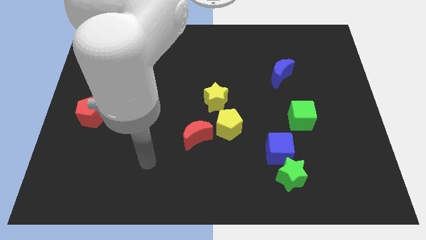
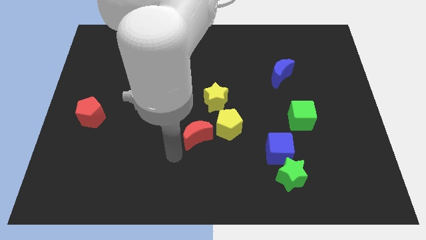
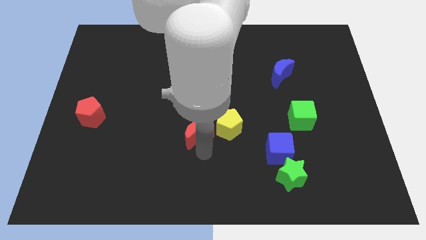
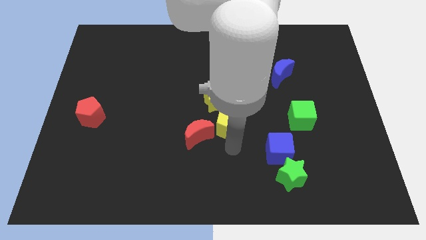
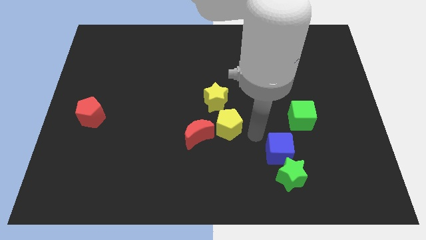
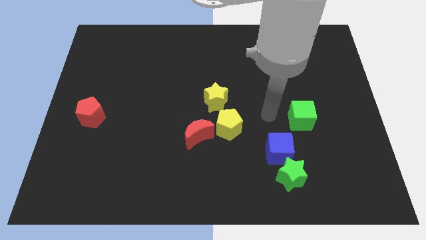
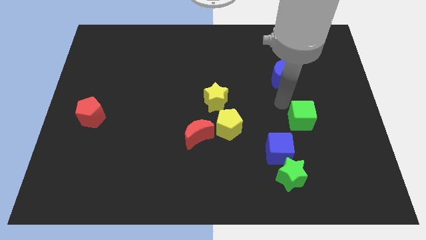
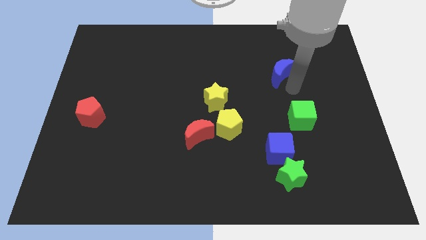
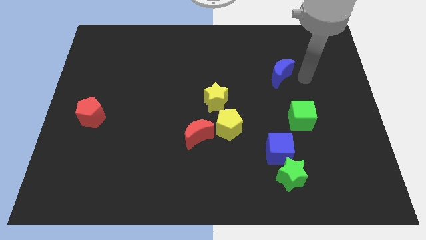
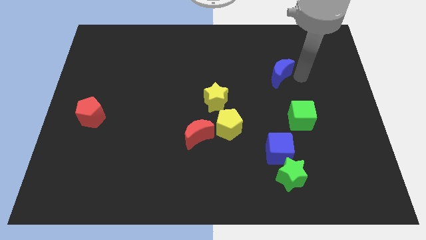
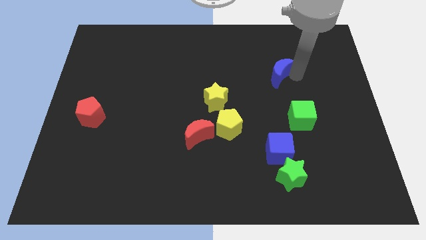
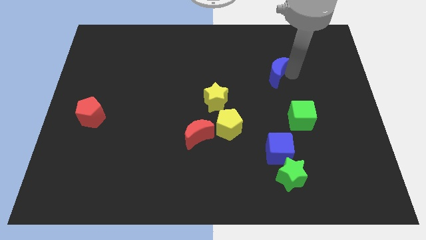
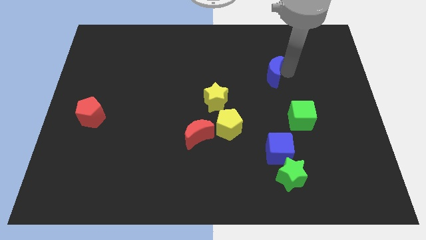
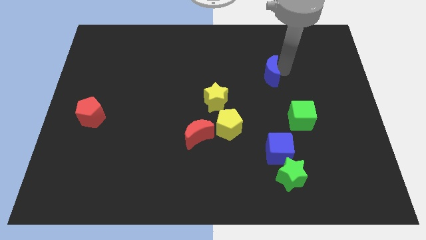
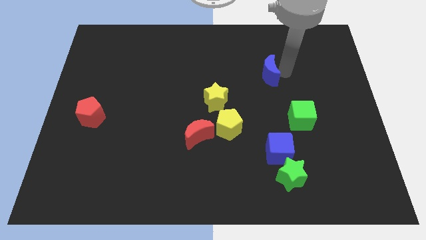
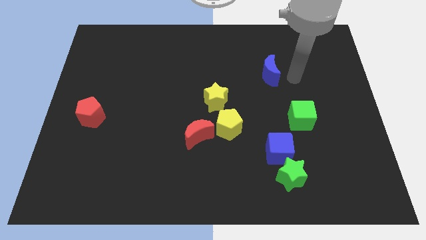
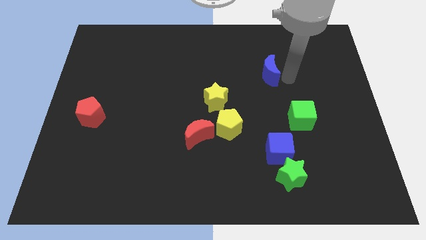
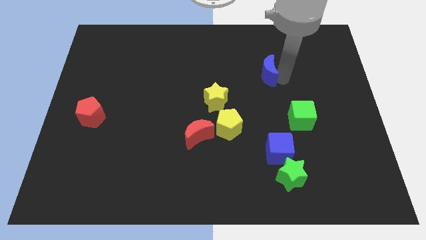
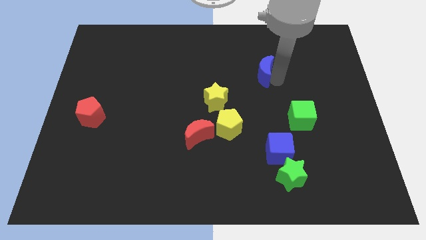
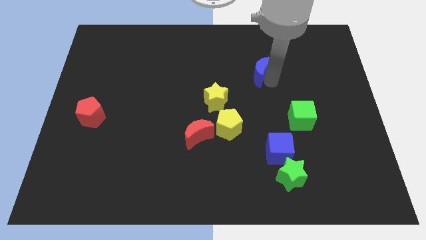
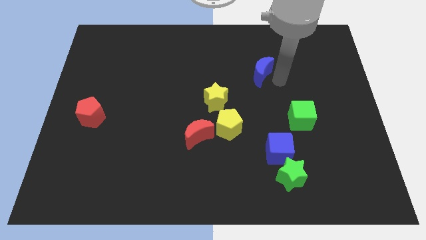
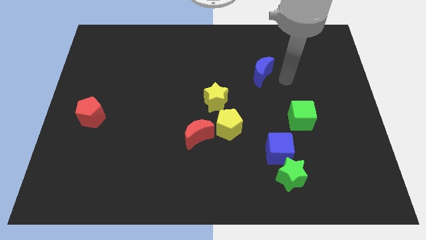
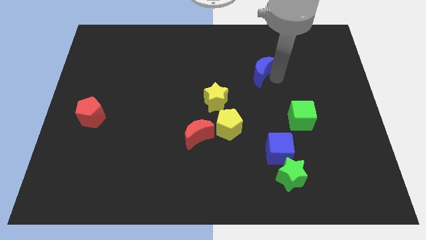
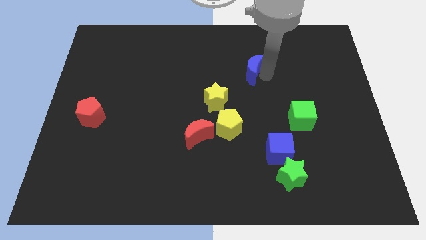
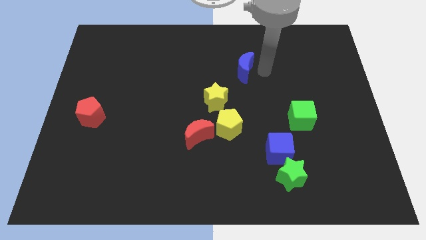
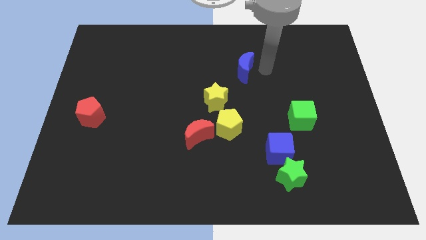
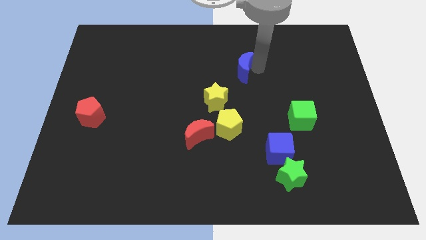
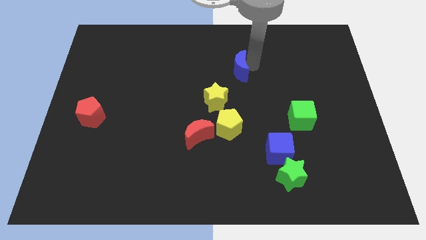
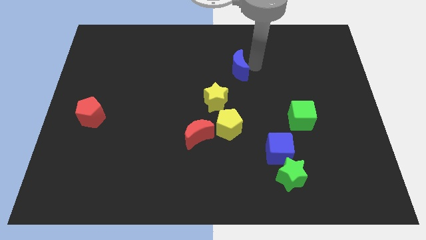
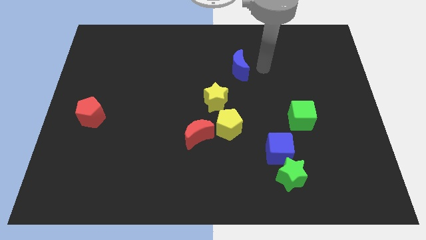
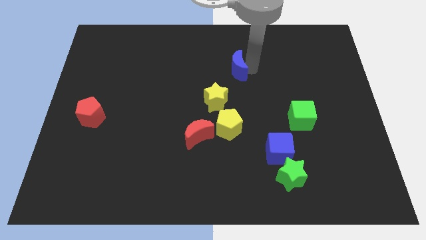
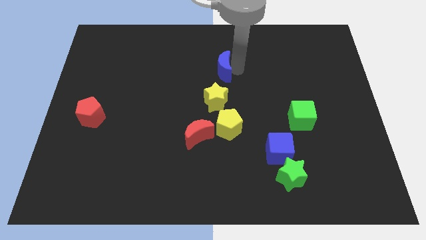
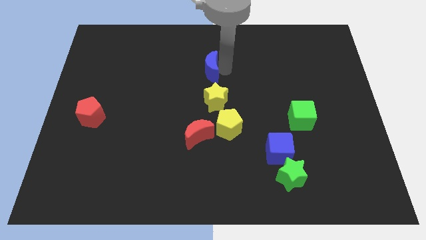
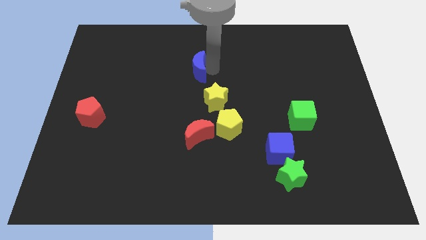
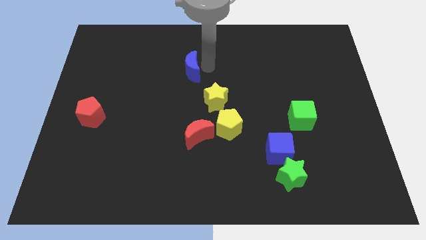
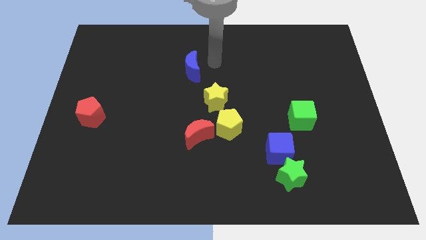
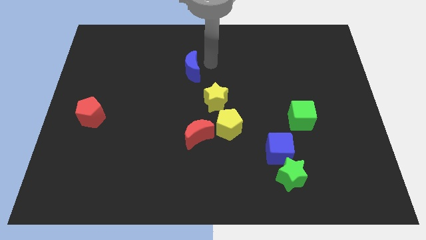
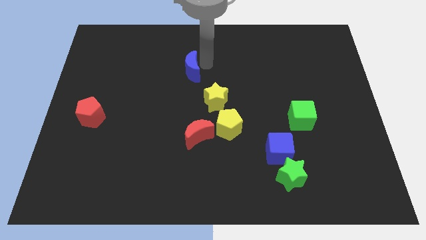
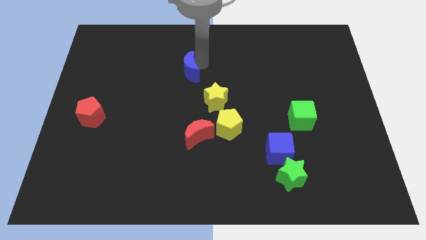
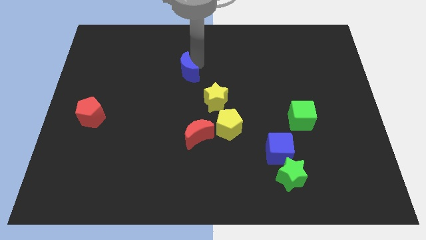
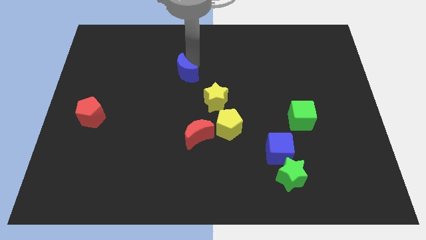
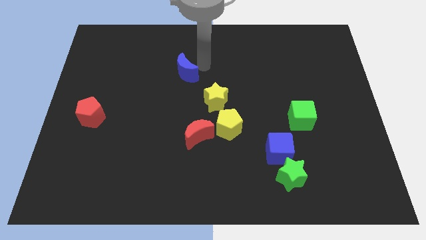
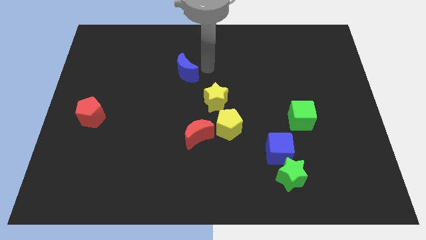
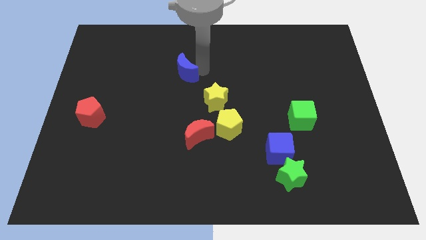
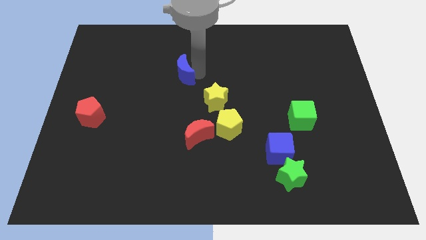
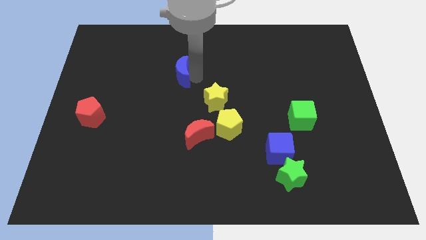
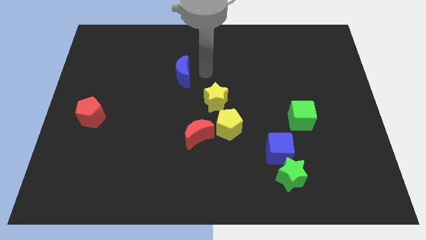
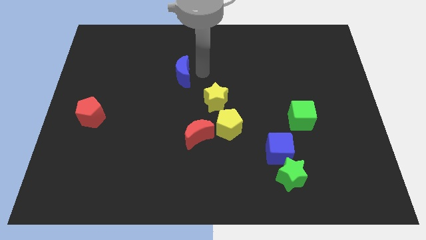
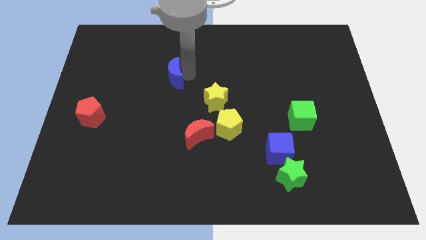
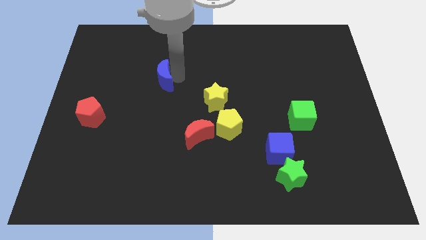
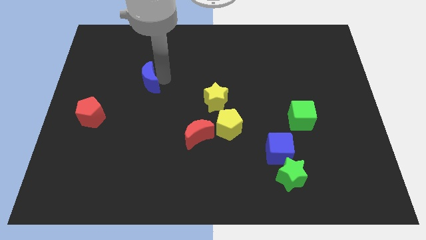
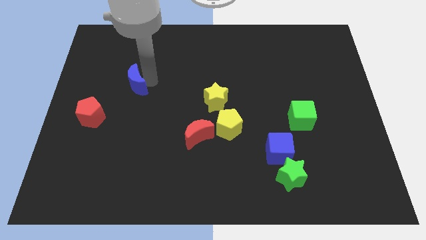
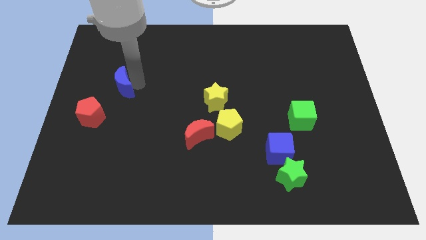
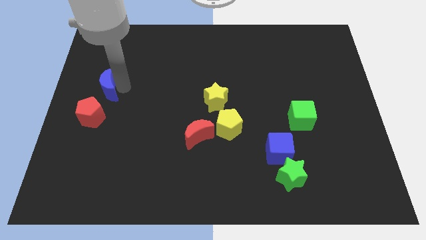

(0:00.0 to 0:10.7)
push the blue moon to the left side of the board

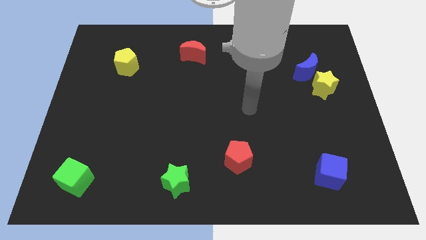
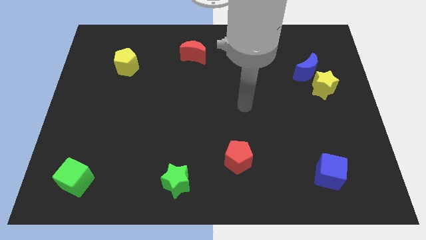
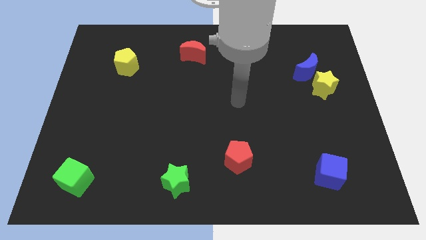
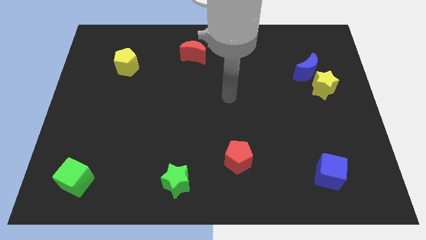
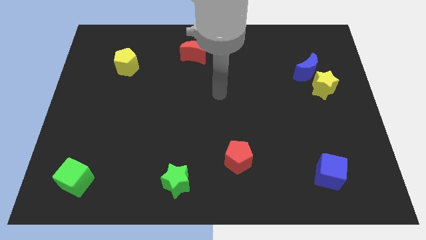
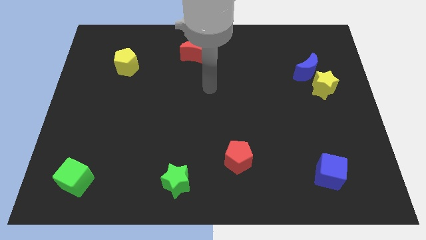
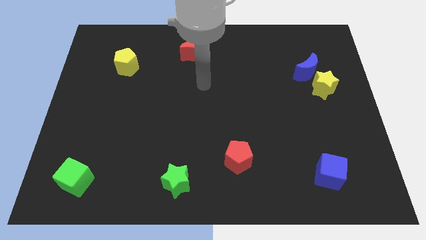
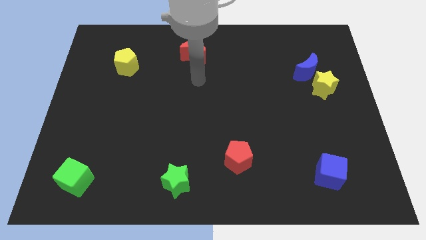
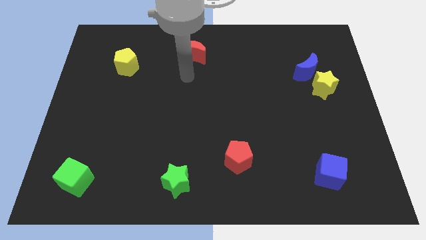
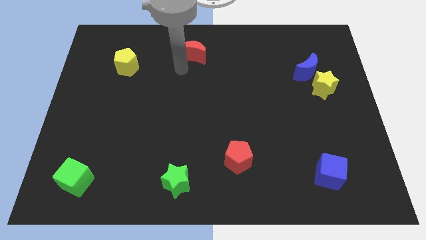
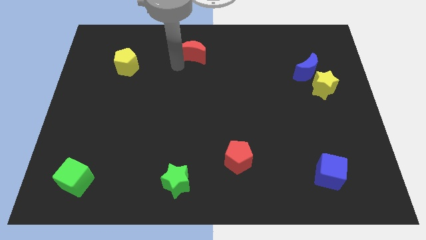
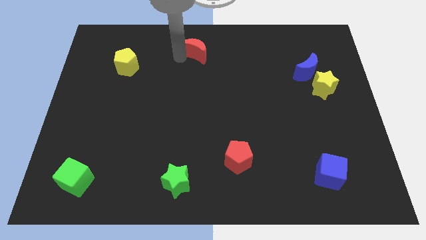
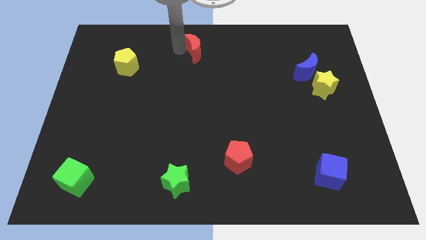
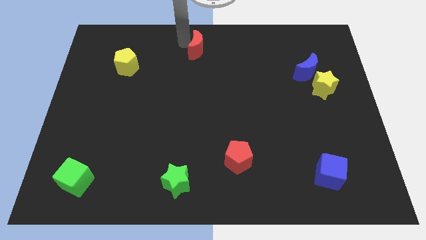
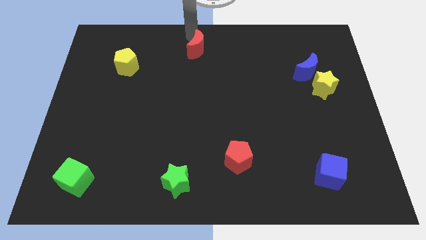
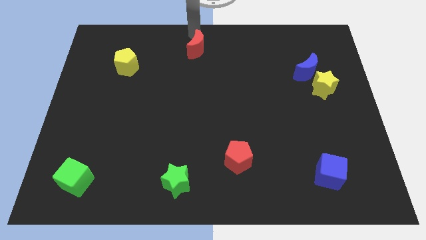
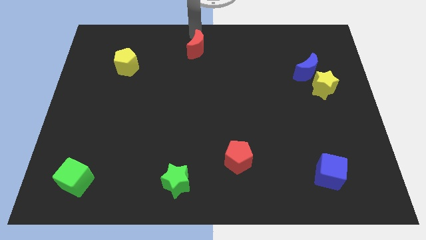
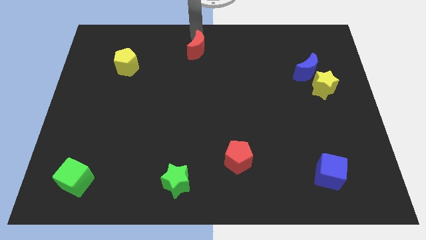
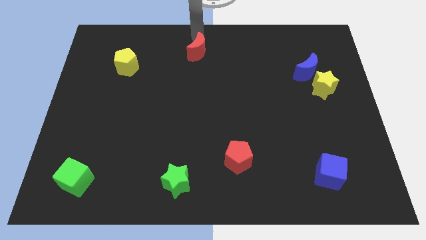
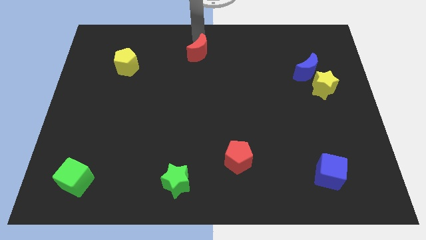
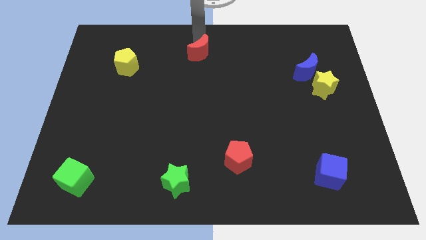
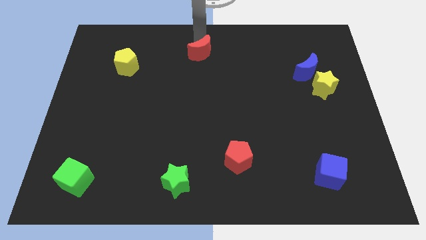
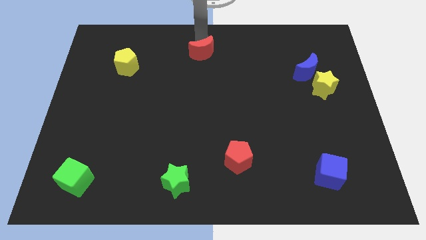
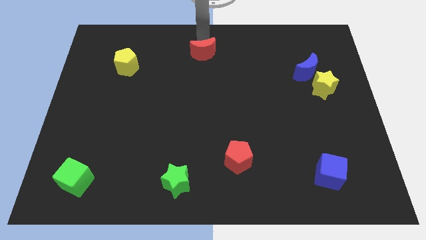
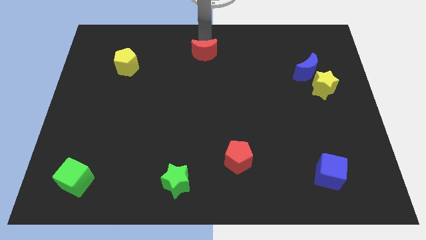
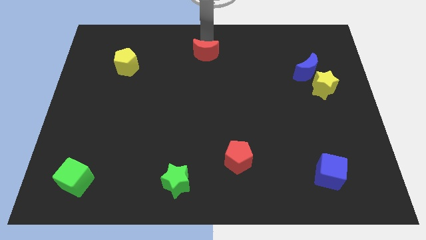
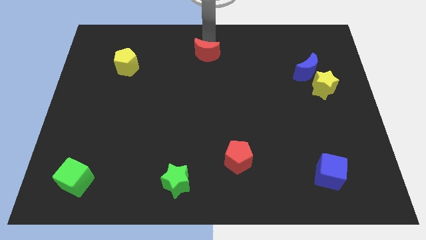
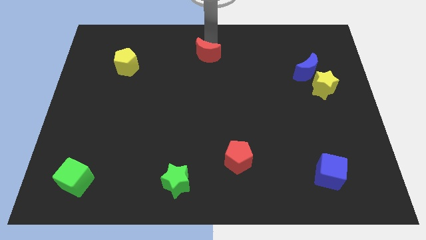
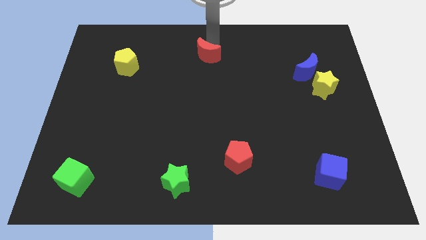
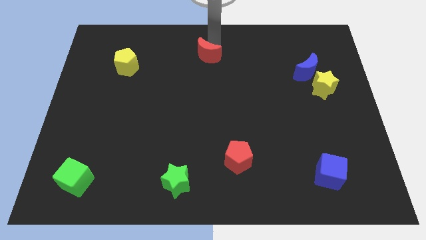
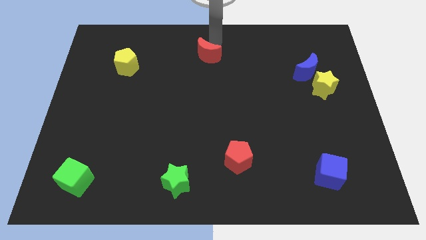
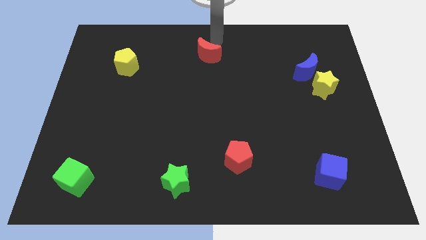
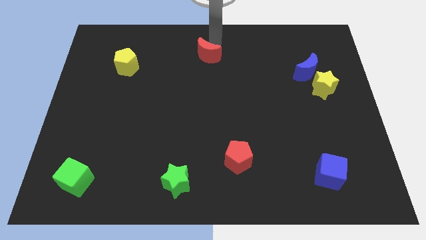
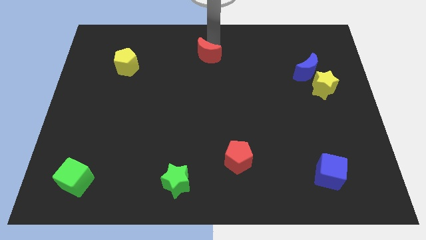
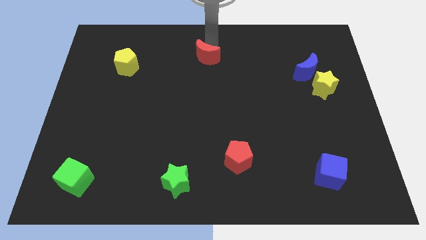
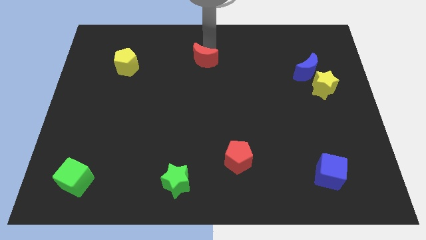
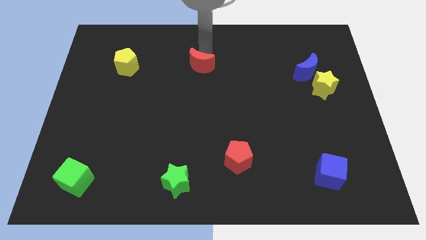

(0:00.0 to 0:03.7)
slide the red moon to the center of the board
